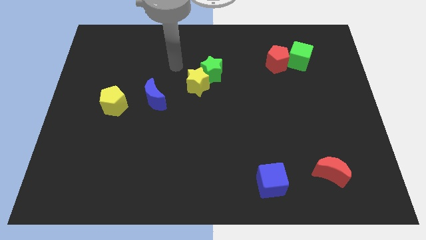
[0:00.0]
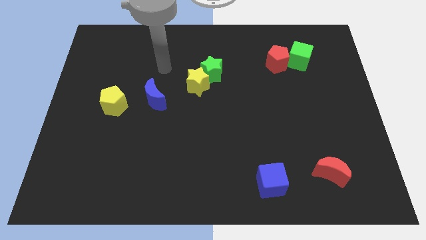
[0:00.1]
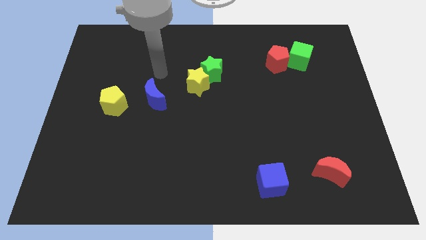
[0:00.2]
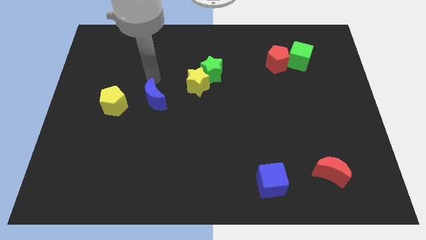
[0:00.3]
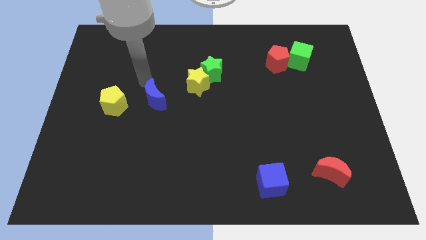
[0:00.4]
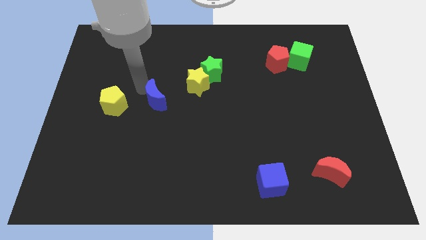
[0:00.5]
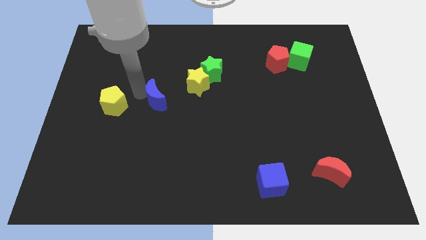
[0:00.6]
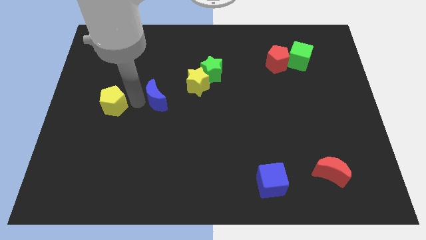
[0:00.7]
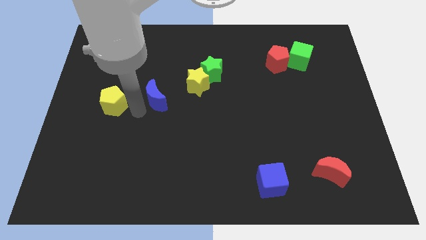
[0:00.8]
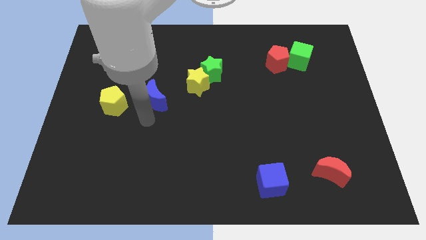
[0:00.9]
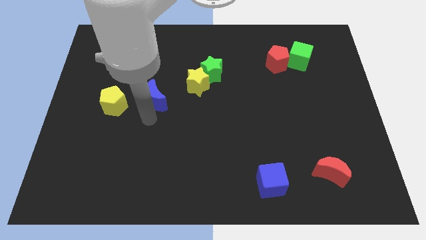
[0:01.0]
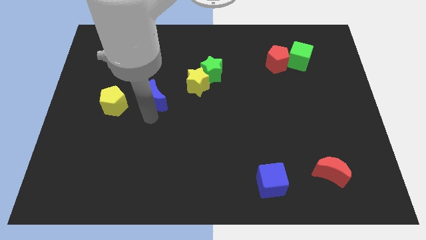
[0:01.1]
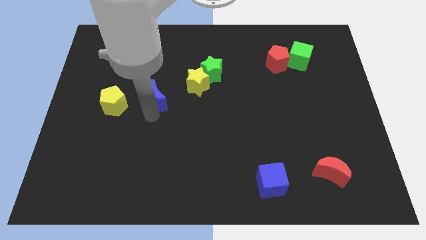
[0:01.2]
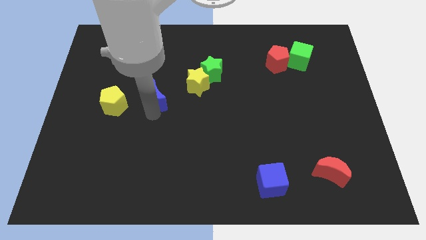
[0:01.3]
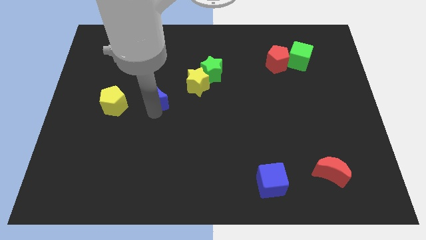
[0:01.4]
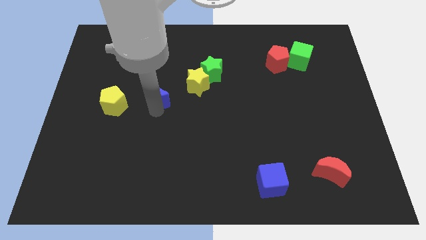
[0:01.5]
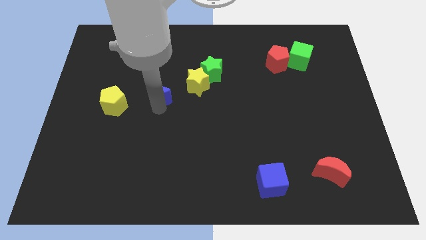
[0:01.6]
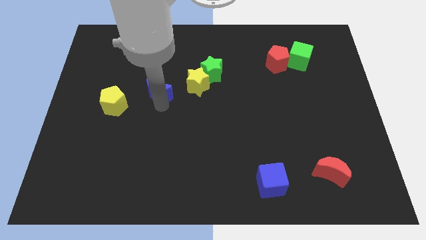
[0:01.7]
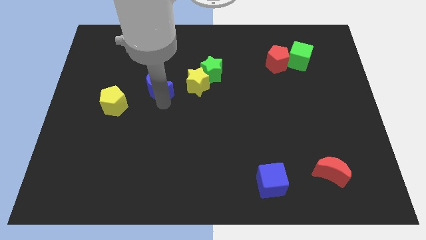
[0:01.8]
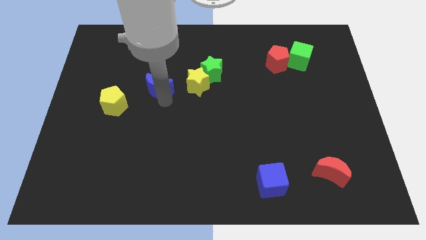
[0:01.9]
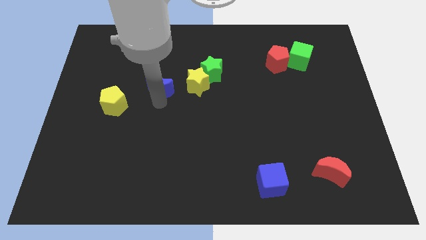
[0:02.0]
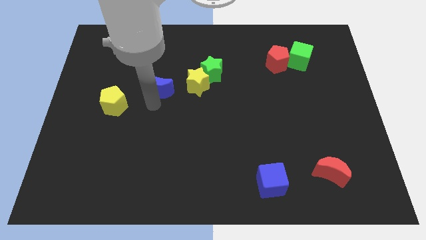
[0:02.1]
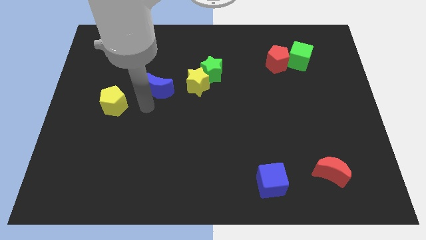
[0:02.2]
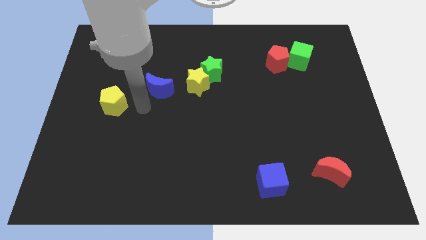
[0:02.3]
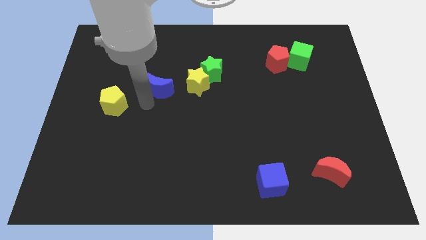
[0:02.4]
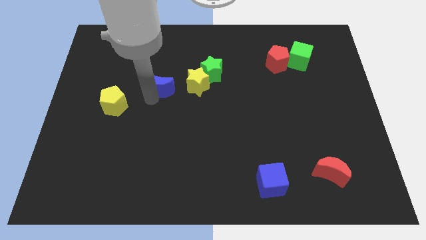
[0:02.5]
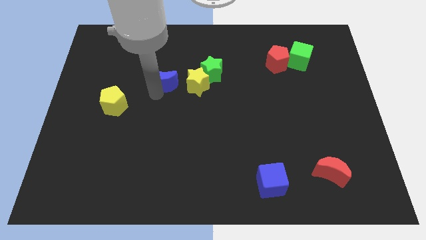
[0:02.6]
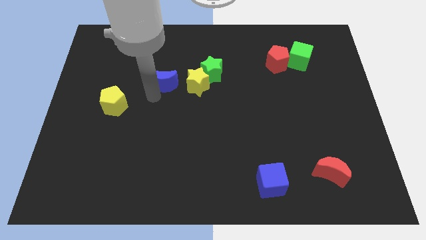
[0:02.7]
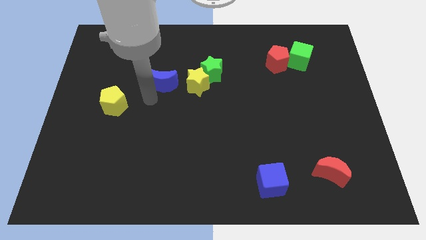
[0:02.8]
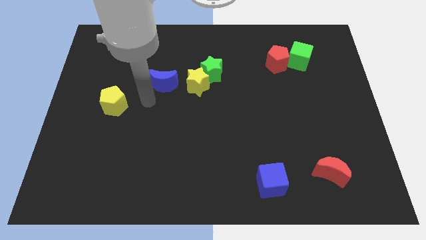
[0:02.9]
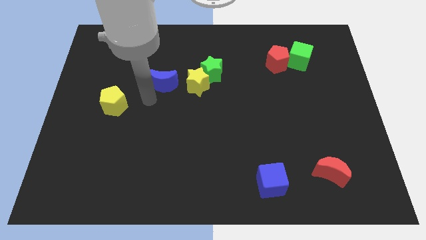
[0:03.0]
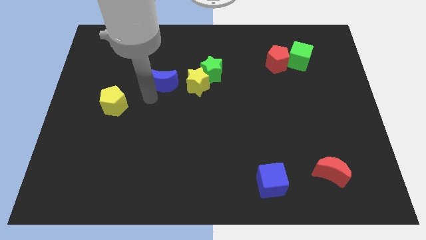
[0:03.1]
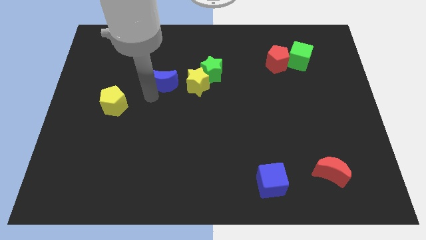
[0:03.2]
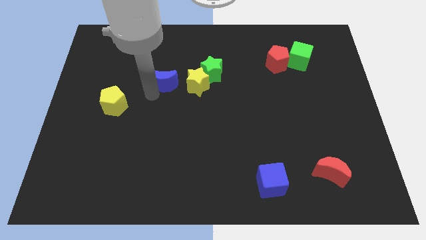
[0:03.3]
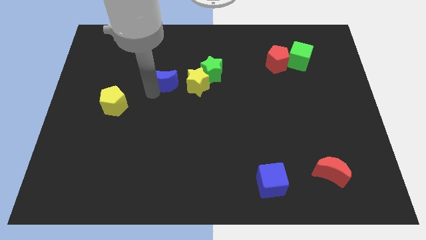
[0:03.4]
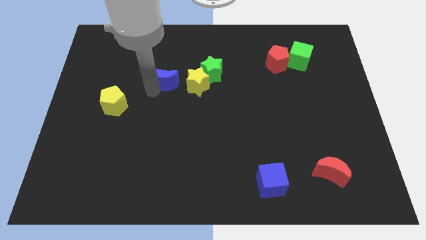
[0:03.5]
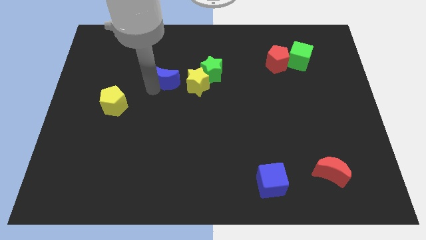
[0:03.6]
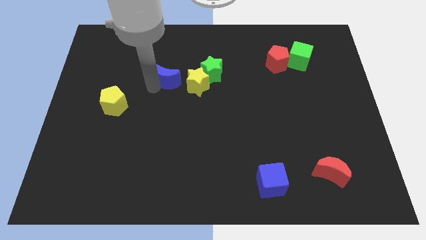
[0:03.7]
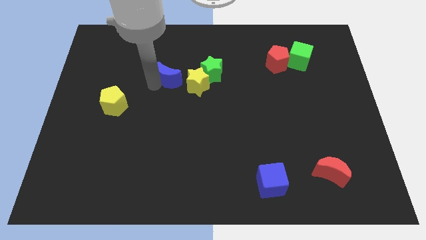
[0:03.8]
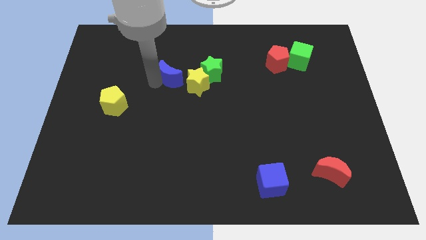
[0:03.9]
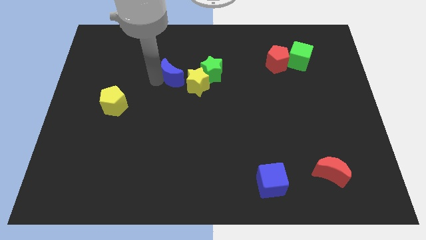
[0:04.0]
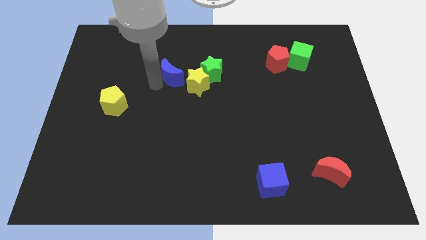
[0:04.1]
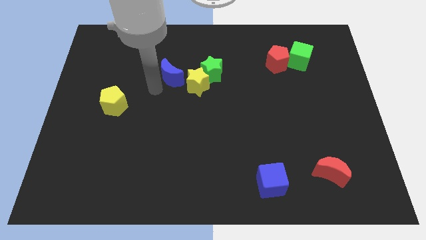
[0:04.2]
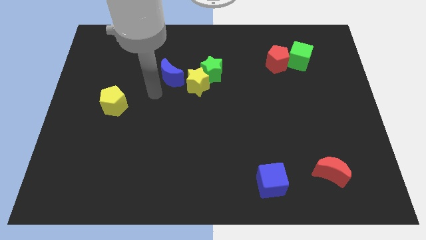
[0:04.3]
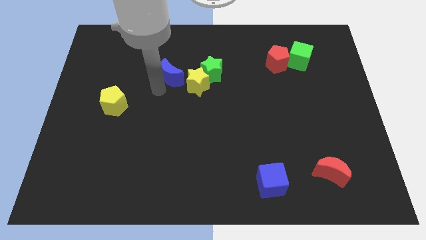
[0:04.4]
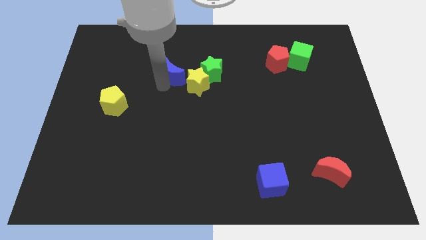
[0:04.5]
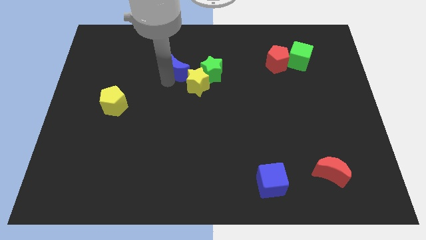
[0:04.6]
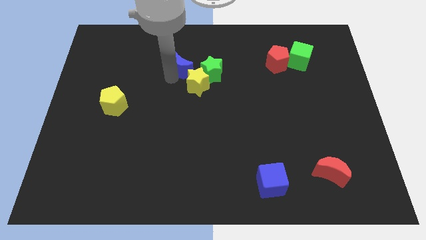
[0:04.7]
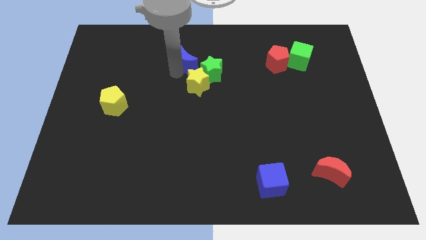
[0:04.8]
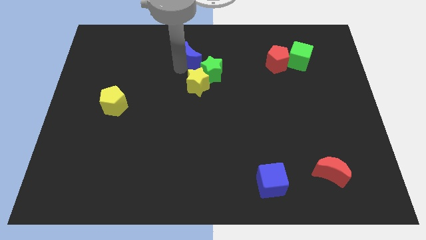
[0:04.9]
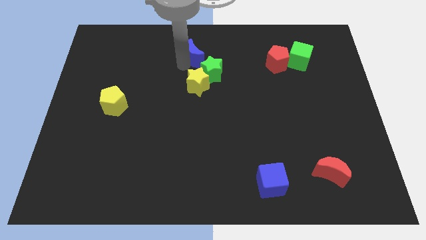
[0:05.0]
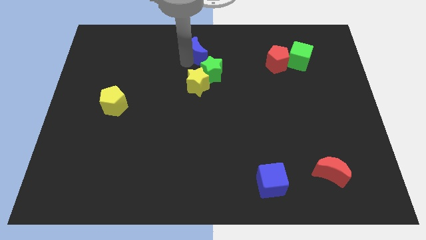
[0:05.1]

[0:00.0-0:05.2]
move the blue moon to the top side
